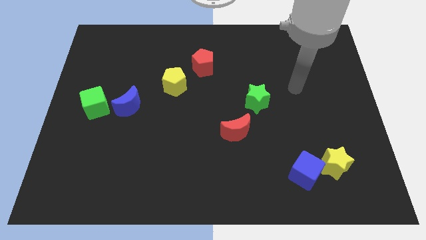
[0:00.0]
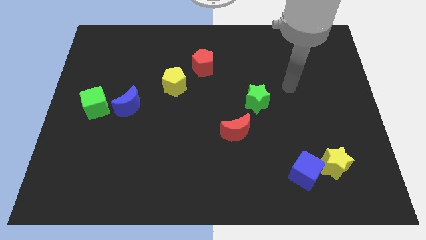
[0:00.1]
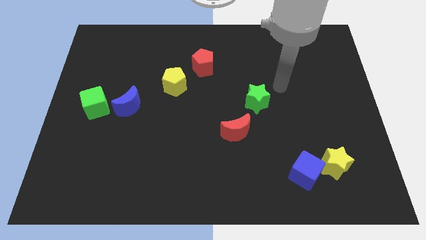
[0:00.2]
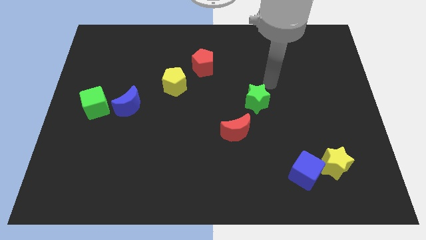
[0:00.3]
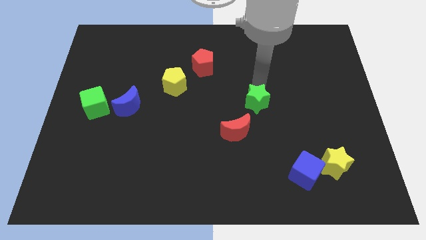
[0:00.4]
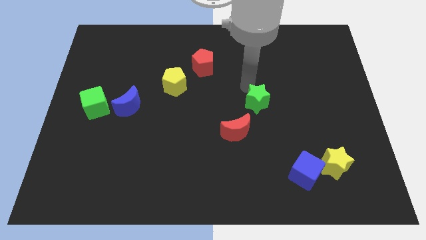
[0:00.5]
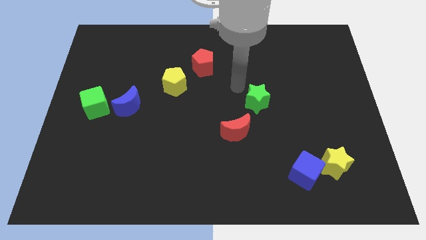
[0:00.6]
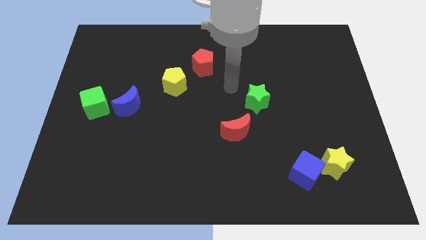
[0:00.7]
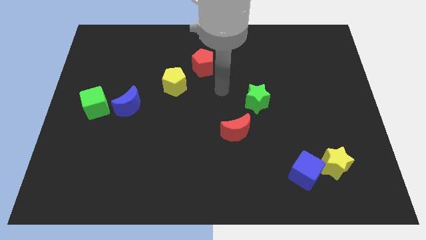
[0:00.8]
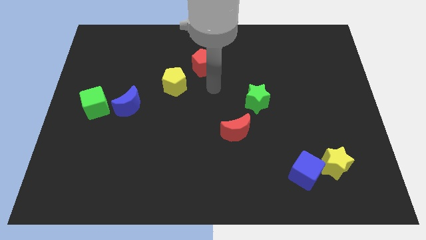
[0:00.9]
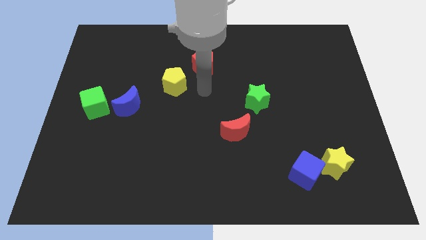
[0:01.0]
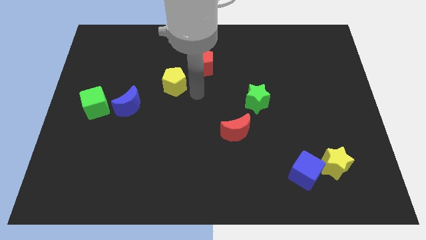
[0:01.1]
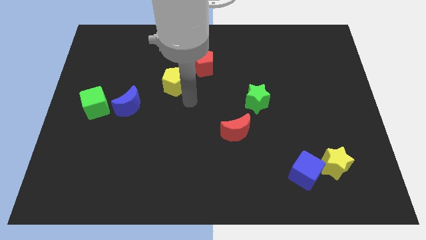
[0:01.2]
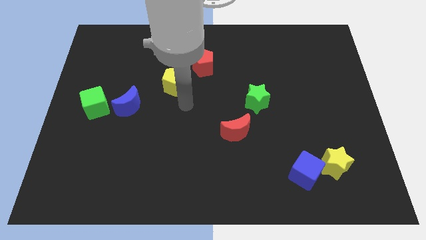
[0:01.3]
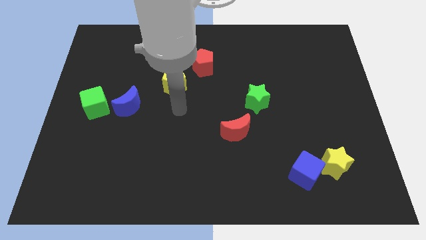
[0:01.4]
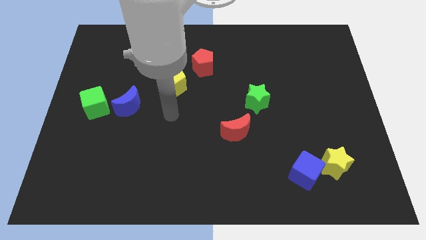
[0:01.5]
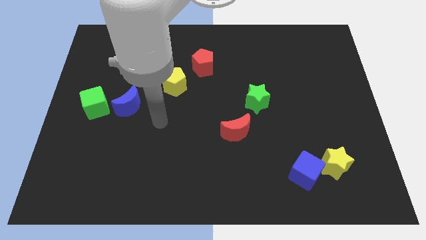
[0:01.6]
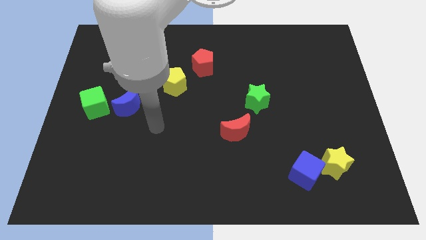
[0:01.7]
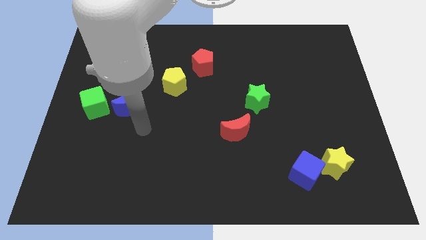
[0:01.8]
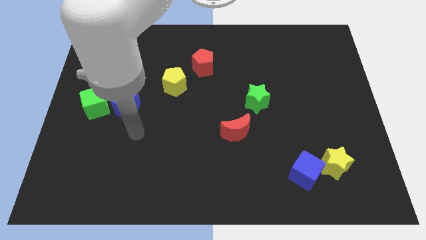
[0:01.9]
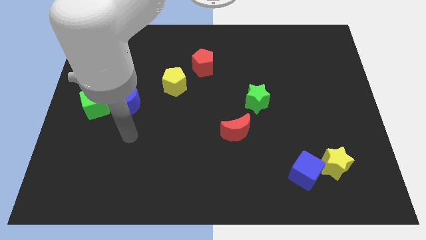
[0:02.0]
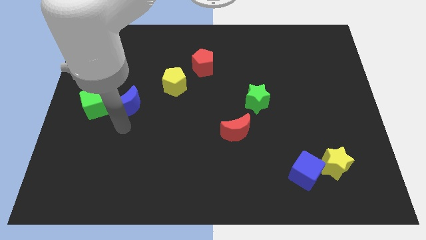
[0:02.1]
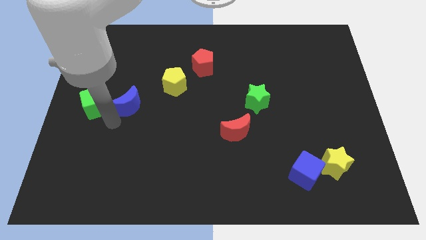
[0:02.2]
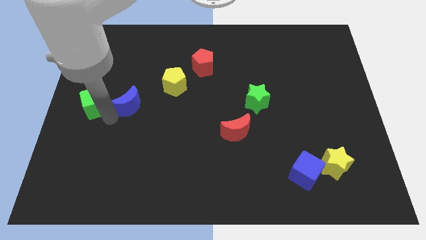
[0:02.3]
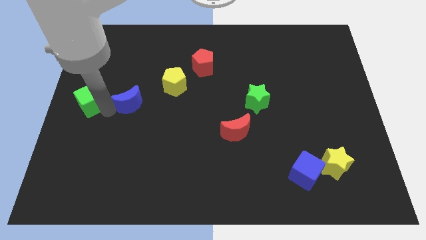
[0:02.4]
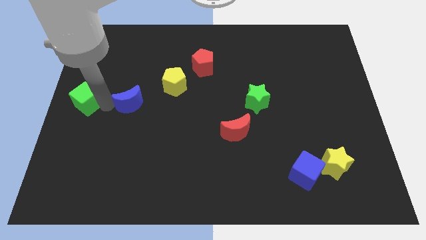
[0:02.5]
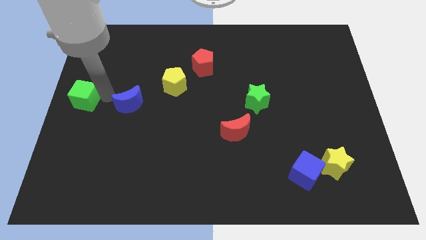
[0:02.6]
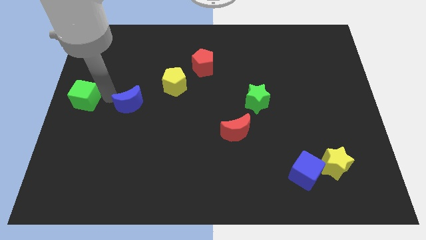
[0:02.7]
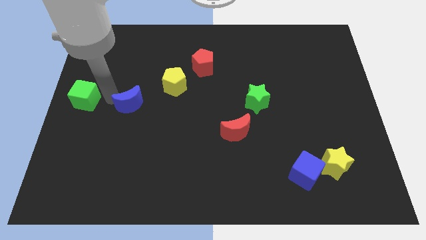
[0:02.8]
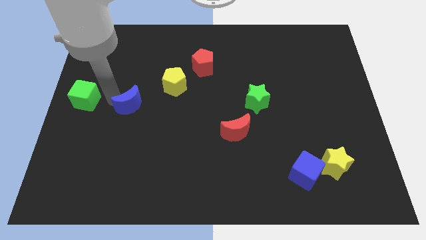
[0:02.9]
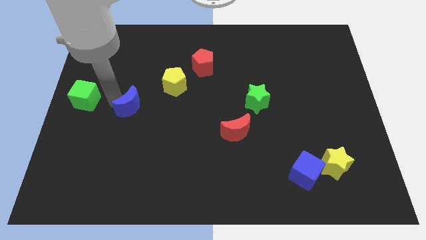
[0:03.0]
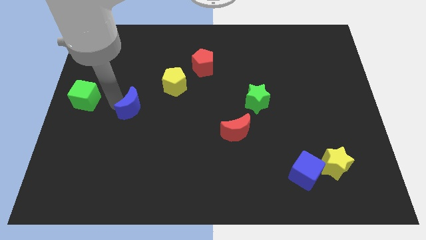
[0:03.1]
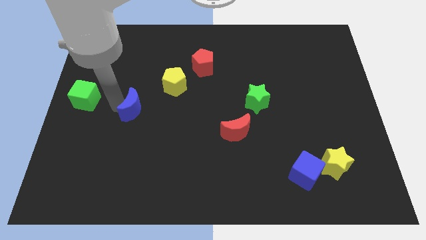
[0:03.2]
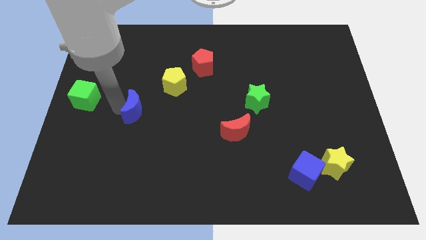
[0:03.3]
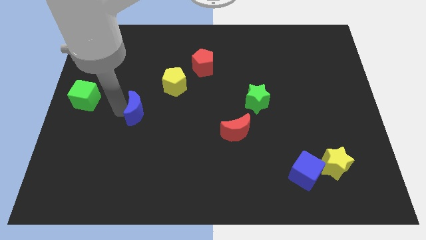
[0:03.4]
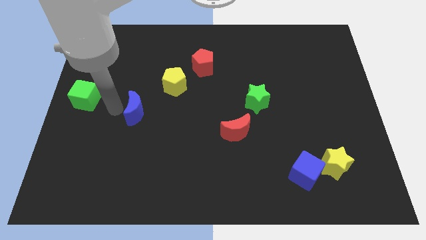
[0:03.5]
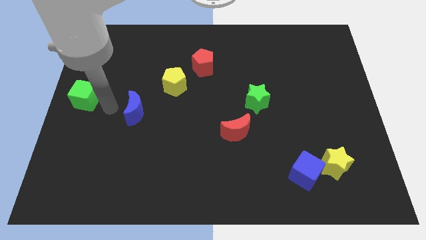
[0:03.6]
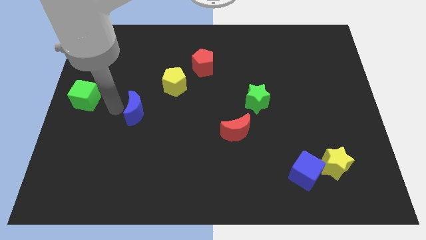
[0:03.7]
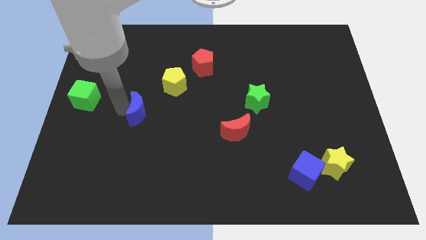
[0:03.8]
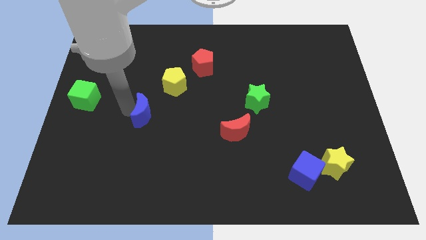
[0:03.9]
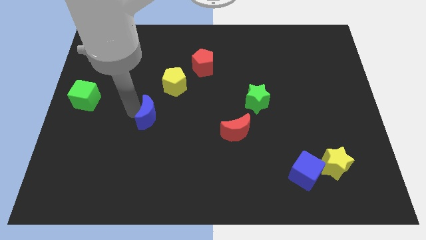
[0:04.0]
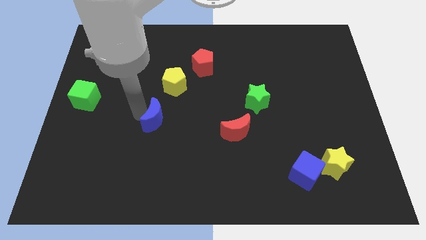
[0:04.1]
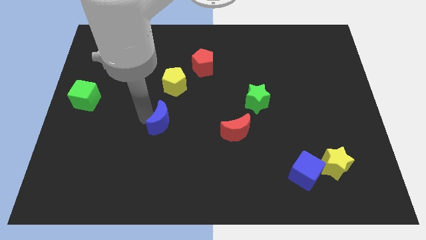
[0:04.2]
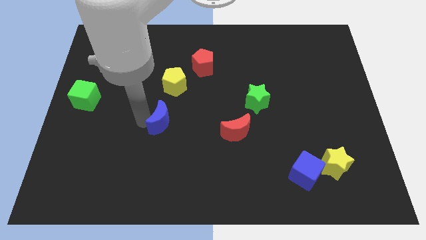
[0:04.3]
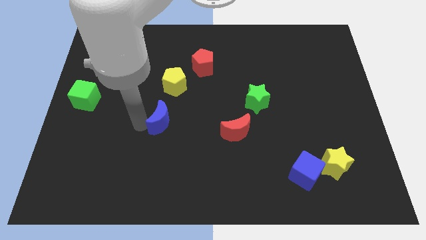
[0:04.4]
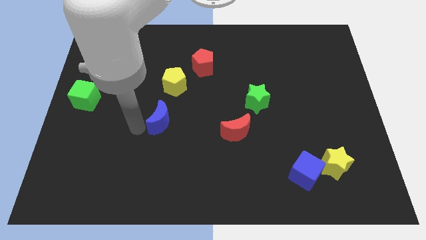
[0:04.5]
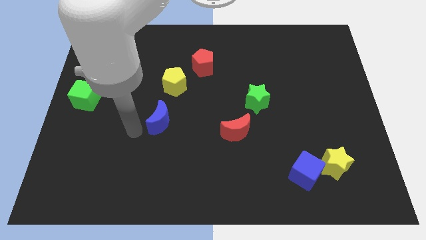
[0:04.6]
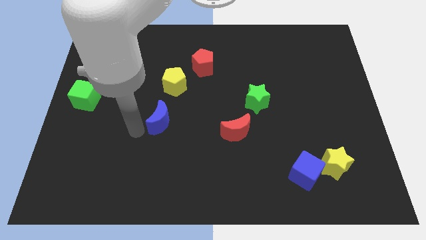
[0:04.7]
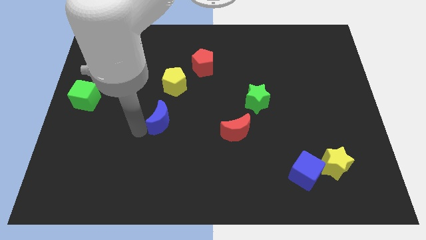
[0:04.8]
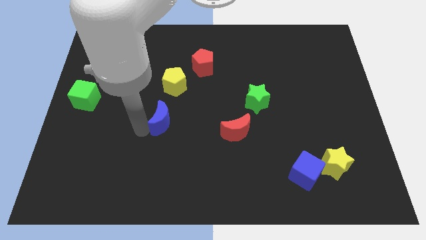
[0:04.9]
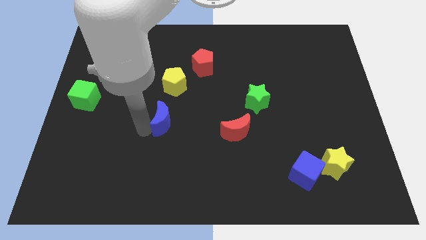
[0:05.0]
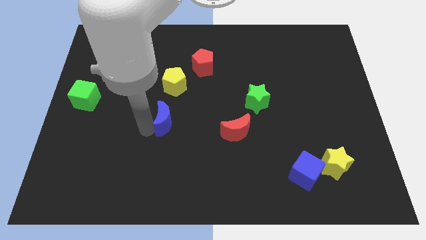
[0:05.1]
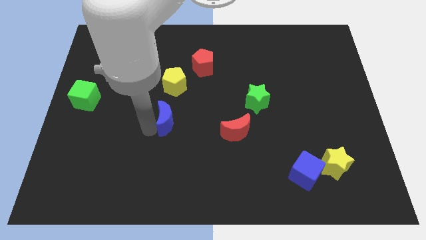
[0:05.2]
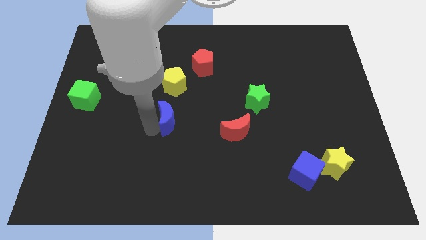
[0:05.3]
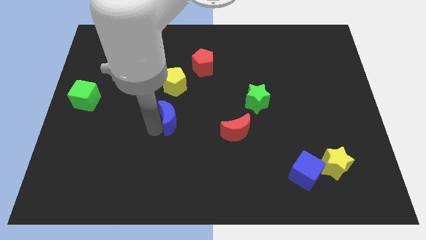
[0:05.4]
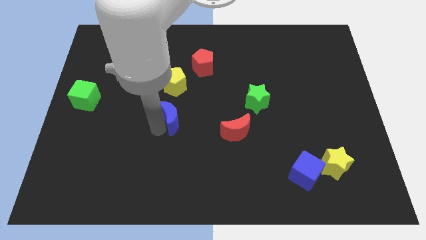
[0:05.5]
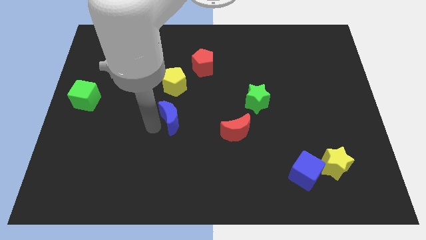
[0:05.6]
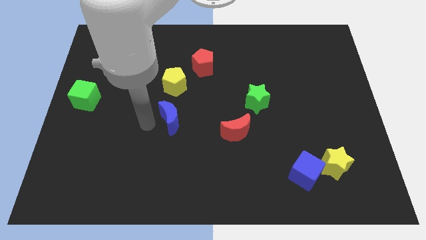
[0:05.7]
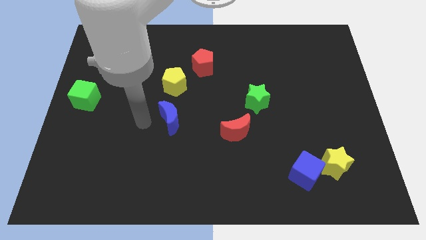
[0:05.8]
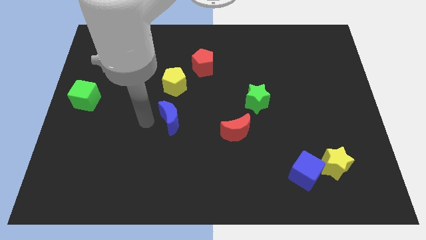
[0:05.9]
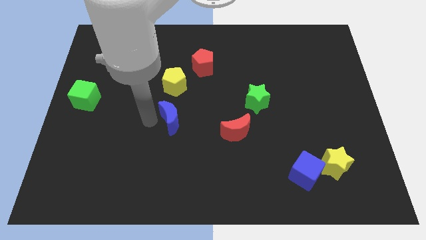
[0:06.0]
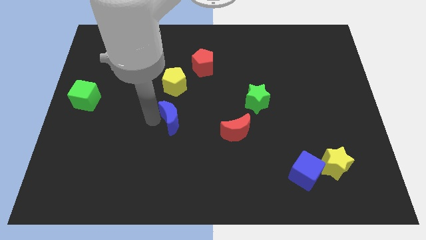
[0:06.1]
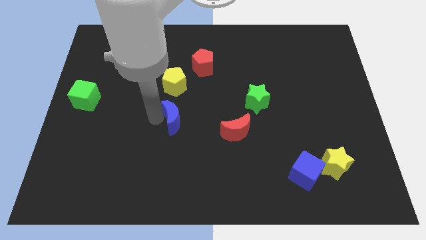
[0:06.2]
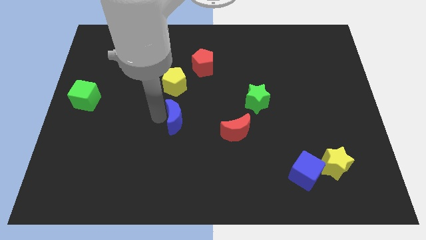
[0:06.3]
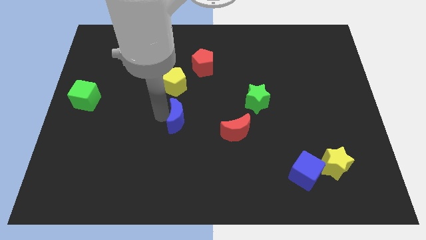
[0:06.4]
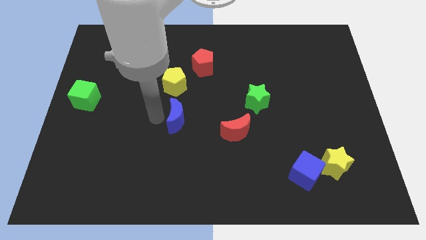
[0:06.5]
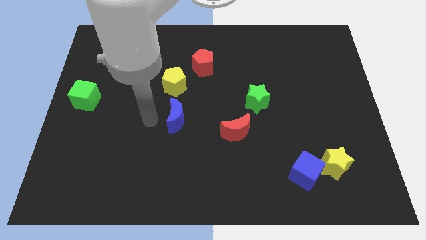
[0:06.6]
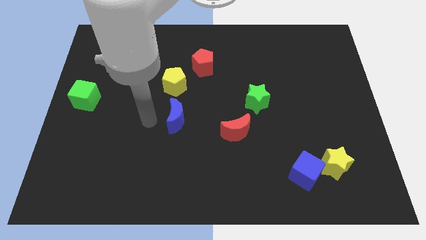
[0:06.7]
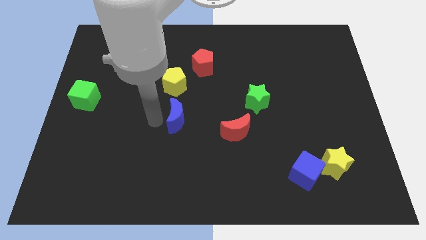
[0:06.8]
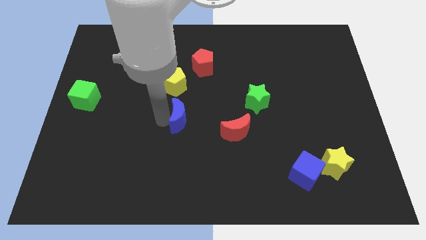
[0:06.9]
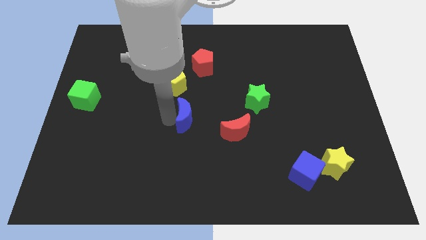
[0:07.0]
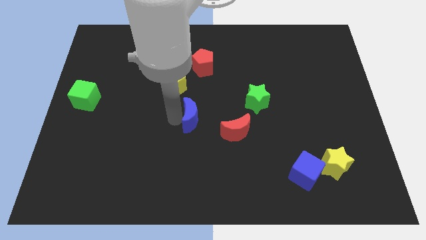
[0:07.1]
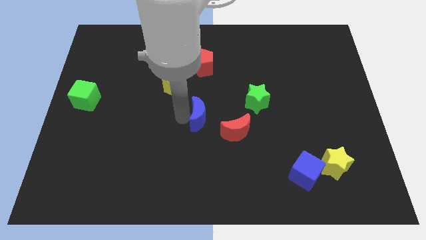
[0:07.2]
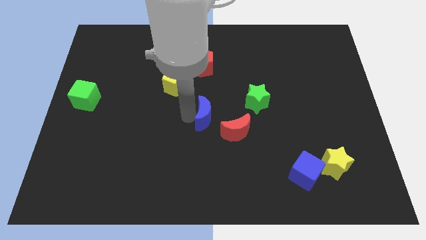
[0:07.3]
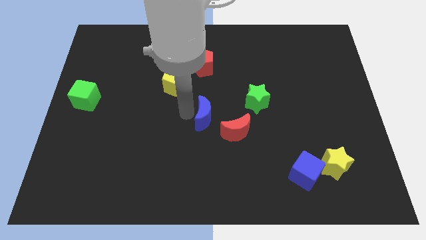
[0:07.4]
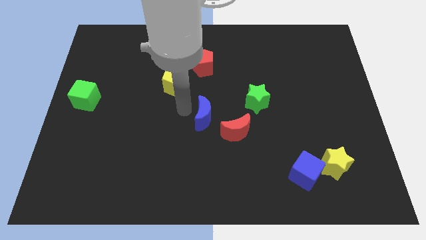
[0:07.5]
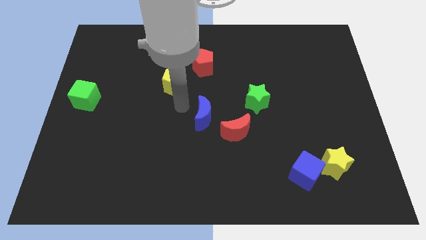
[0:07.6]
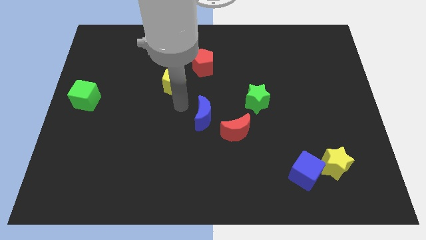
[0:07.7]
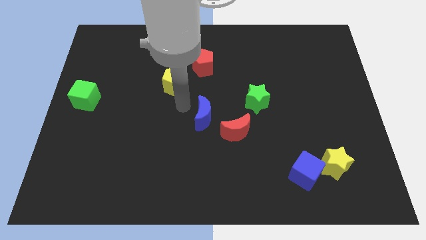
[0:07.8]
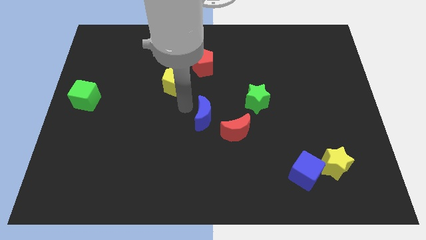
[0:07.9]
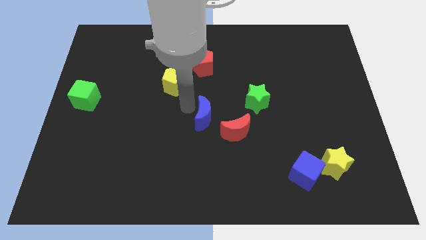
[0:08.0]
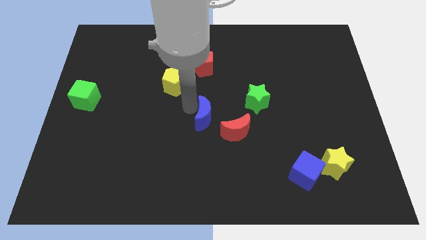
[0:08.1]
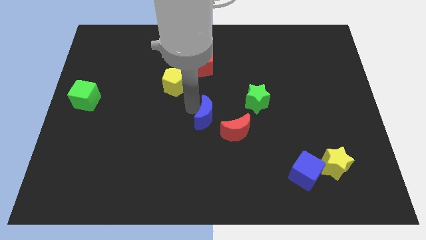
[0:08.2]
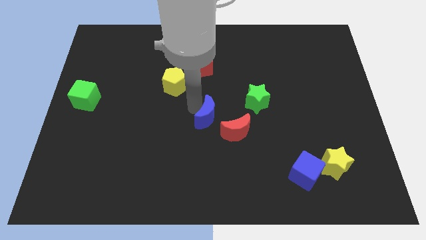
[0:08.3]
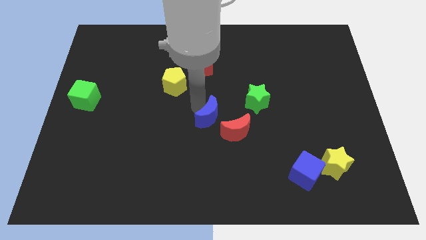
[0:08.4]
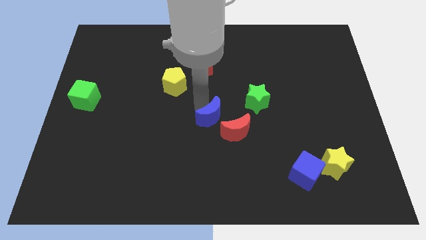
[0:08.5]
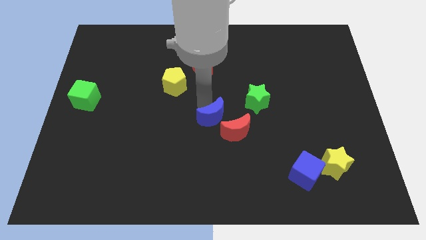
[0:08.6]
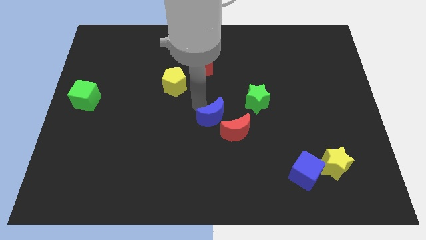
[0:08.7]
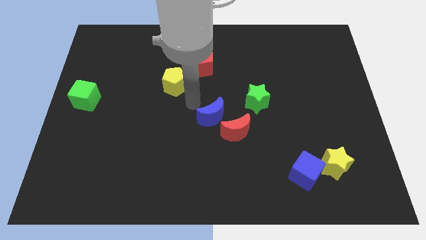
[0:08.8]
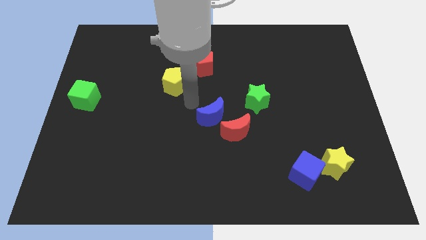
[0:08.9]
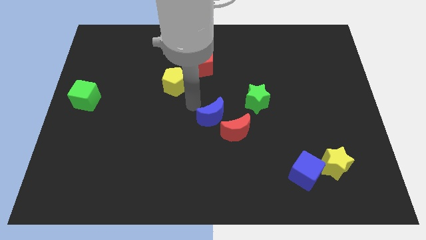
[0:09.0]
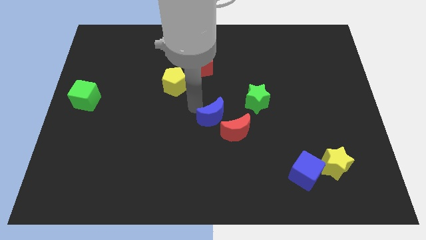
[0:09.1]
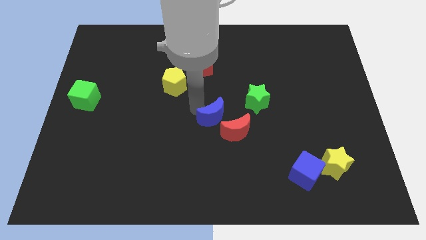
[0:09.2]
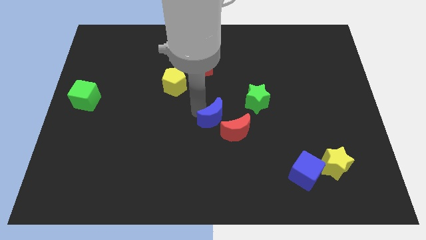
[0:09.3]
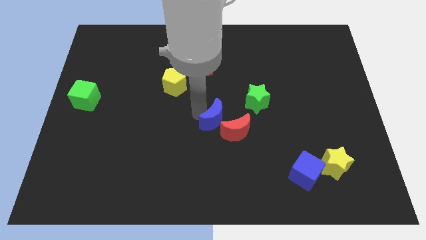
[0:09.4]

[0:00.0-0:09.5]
put the blue moon next to the red moon
